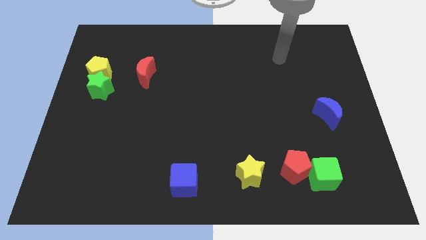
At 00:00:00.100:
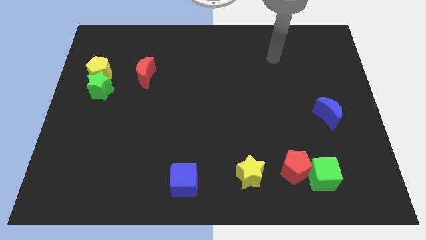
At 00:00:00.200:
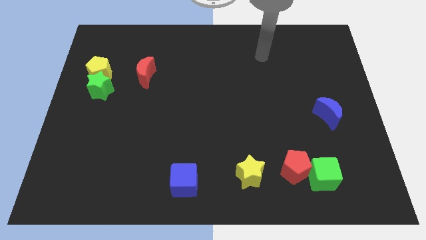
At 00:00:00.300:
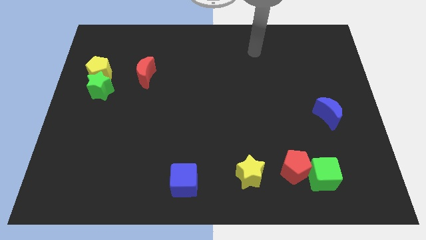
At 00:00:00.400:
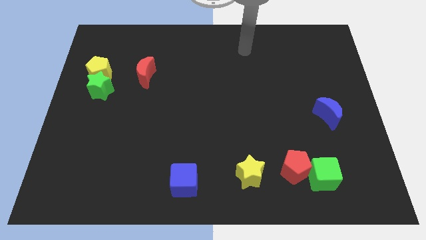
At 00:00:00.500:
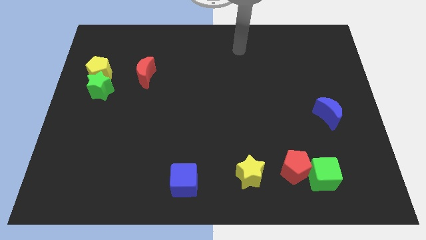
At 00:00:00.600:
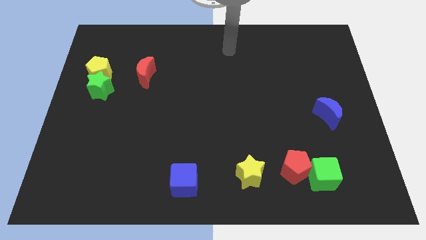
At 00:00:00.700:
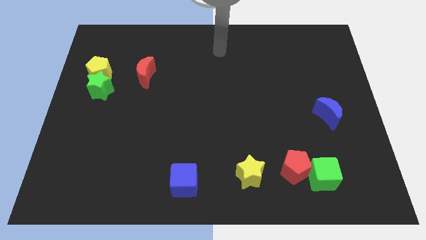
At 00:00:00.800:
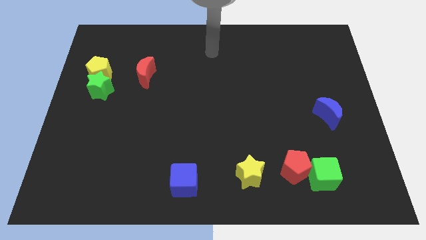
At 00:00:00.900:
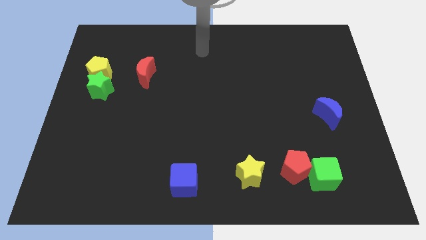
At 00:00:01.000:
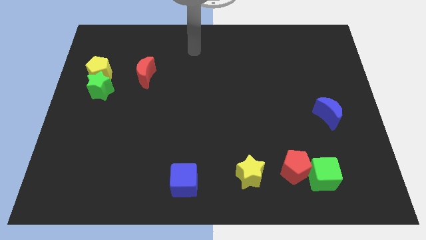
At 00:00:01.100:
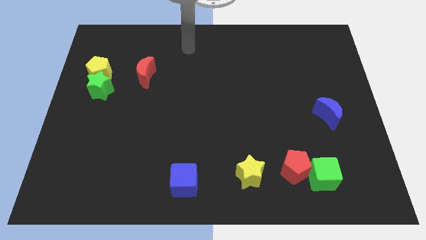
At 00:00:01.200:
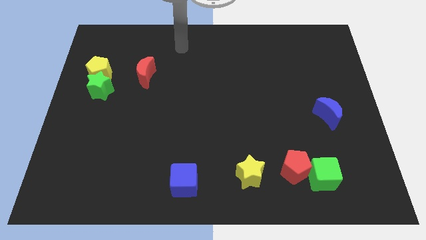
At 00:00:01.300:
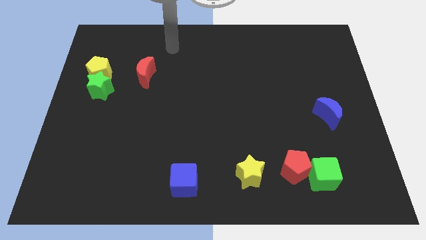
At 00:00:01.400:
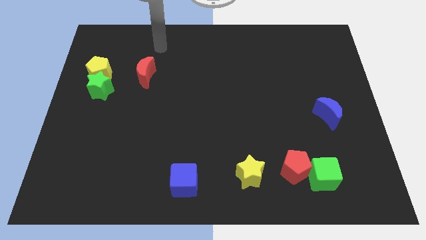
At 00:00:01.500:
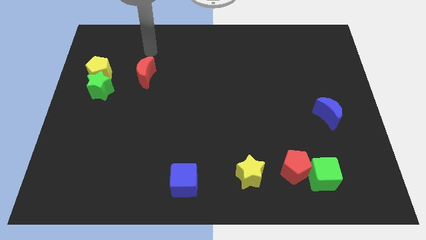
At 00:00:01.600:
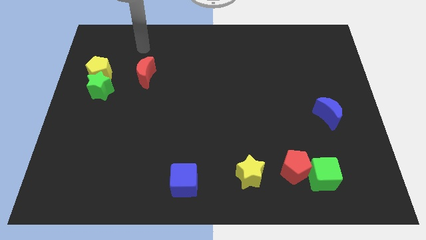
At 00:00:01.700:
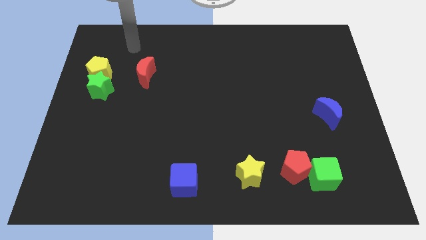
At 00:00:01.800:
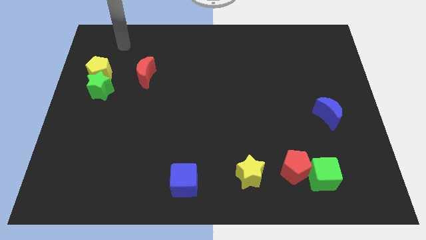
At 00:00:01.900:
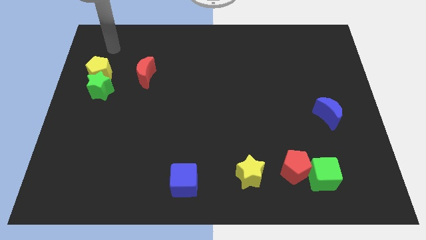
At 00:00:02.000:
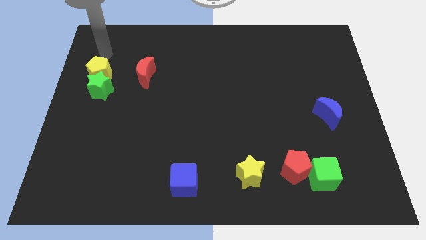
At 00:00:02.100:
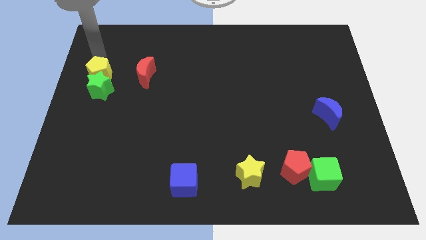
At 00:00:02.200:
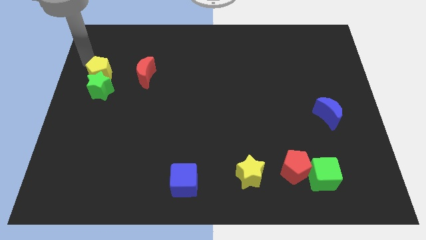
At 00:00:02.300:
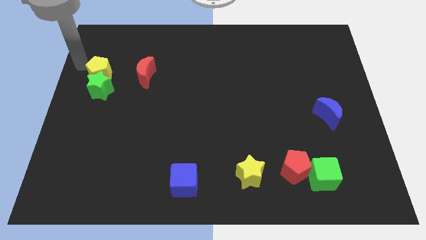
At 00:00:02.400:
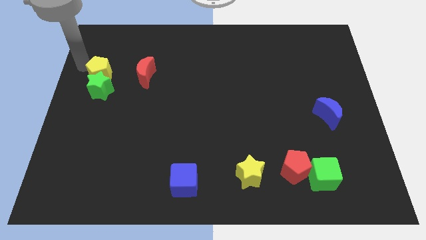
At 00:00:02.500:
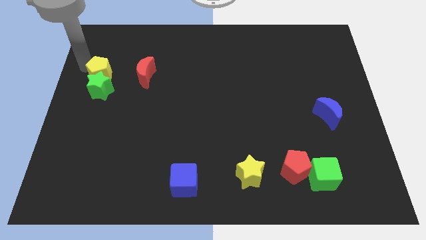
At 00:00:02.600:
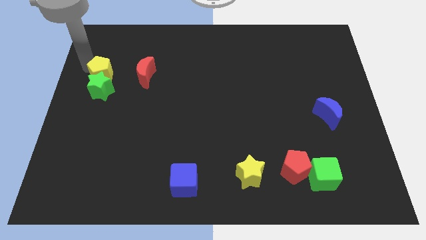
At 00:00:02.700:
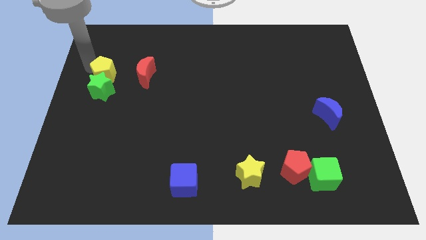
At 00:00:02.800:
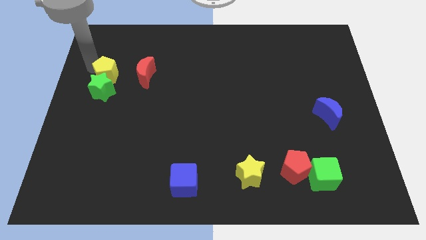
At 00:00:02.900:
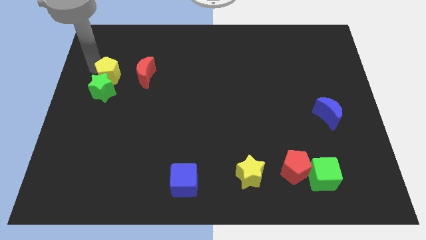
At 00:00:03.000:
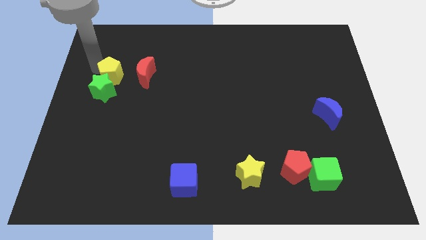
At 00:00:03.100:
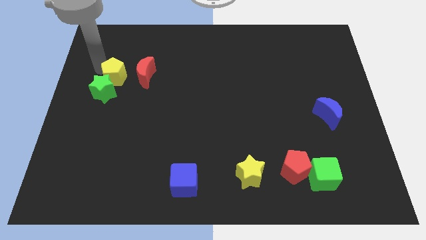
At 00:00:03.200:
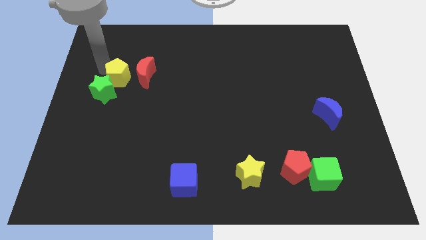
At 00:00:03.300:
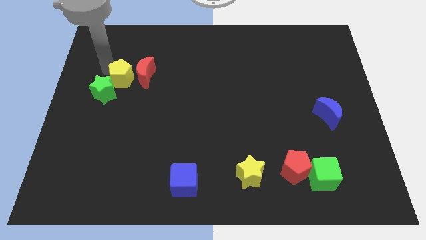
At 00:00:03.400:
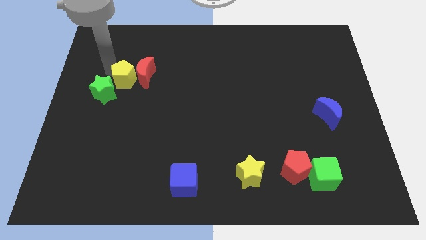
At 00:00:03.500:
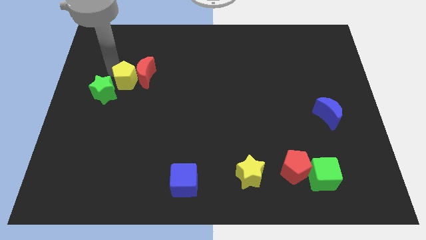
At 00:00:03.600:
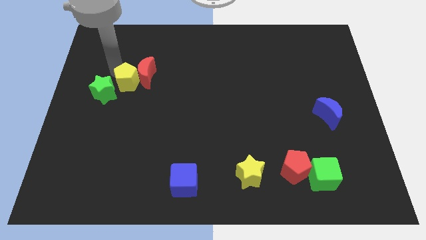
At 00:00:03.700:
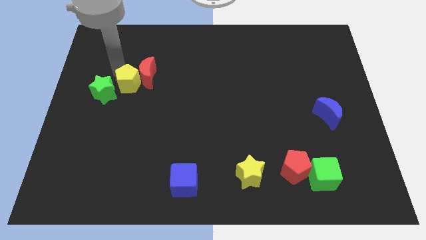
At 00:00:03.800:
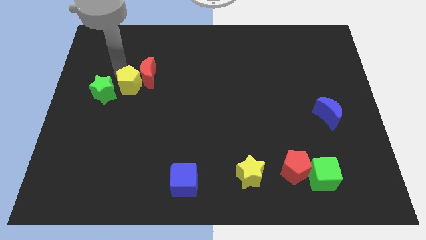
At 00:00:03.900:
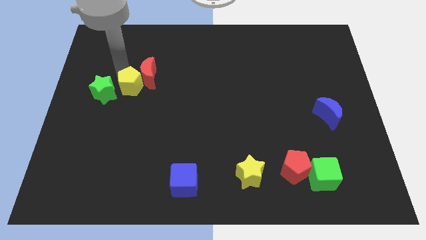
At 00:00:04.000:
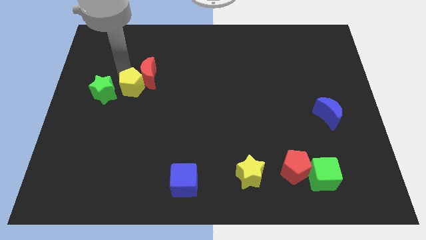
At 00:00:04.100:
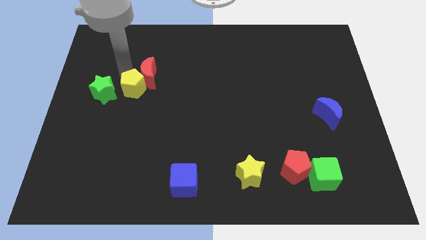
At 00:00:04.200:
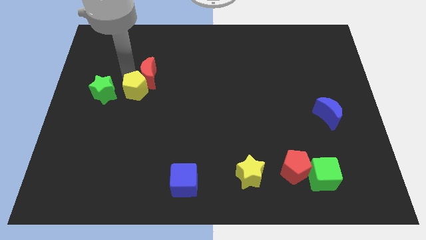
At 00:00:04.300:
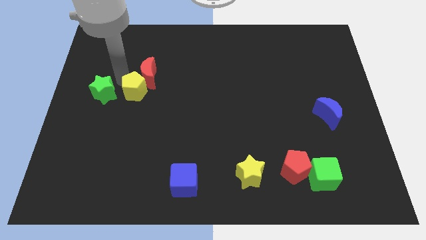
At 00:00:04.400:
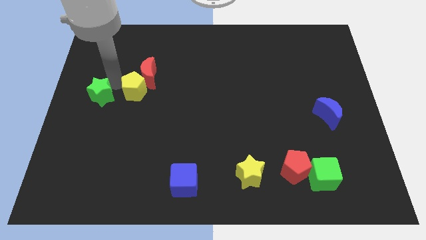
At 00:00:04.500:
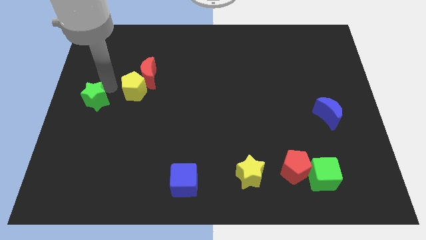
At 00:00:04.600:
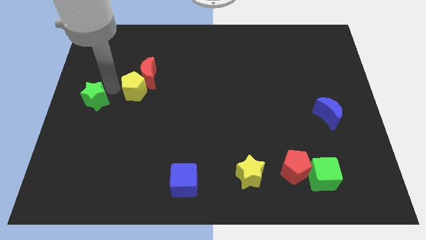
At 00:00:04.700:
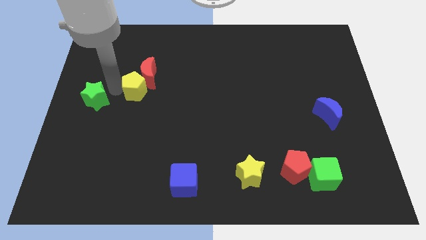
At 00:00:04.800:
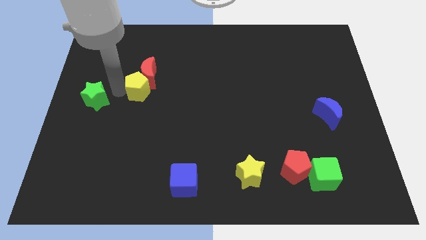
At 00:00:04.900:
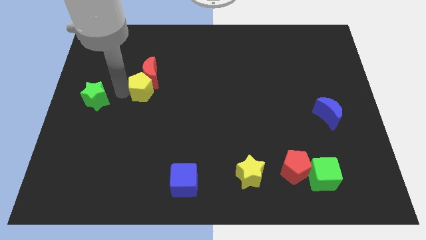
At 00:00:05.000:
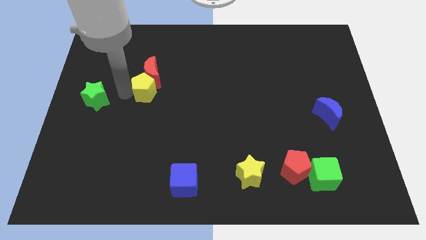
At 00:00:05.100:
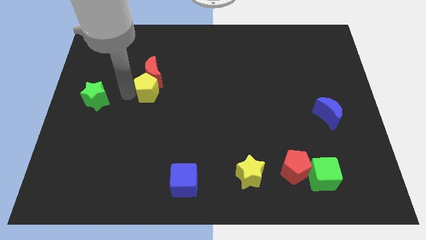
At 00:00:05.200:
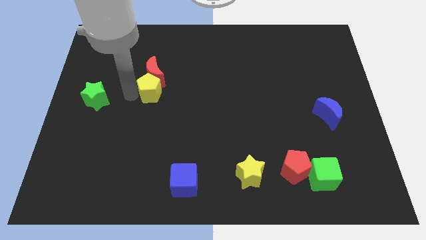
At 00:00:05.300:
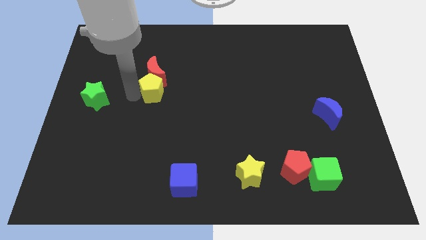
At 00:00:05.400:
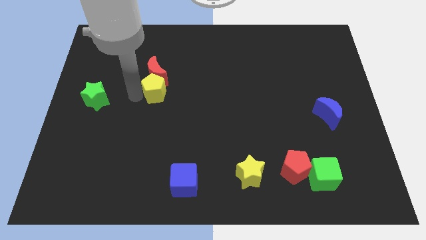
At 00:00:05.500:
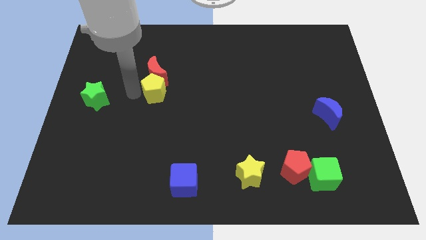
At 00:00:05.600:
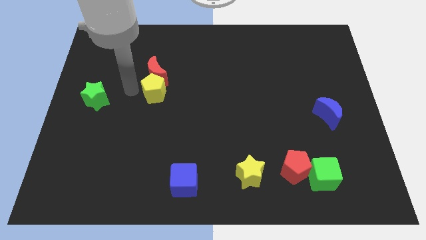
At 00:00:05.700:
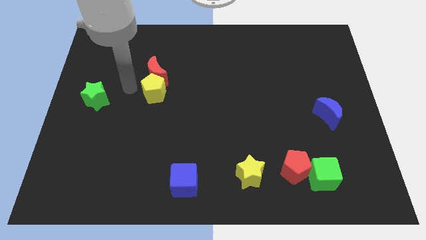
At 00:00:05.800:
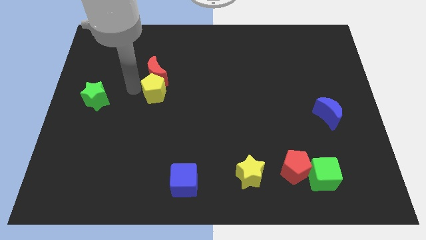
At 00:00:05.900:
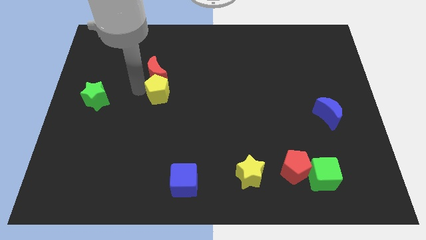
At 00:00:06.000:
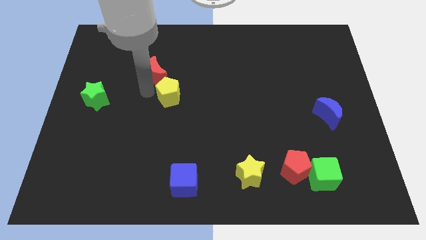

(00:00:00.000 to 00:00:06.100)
push the yellow pentagon to the middle of the board
